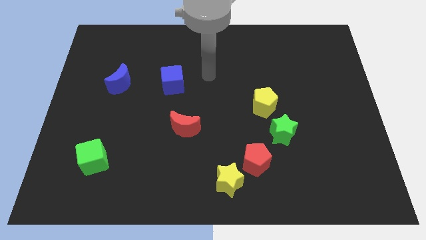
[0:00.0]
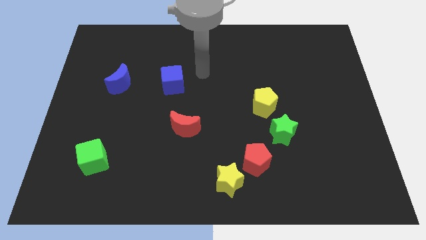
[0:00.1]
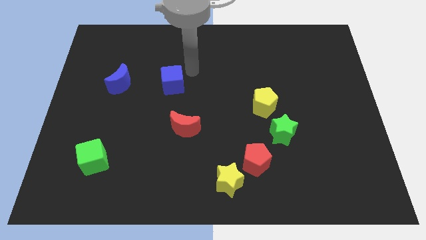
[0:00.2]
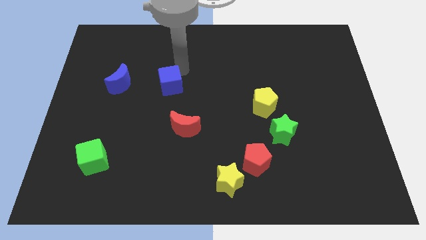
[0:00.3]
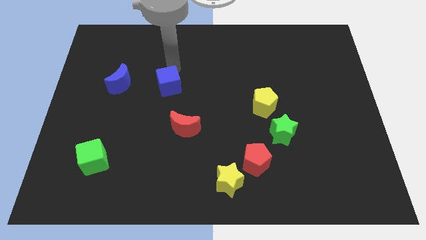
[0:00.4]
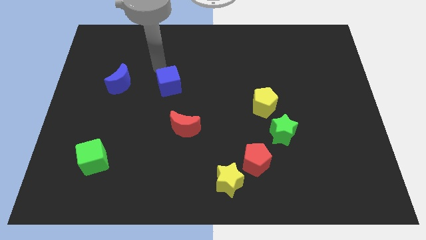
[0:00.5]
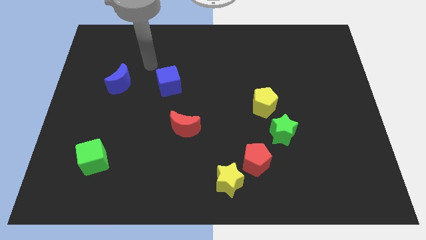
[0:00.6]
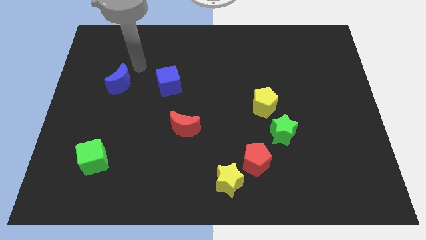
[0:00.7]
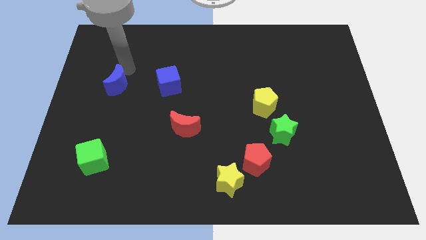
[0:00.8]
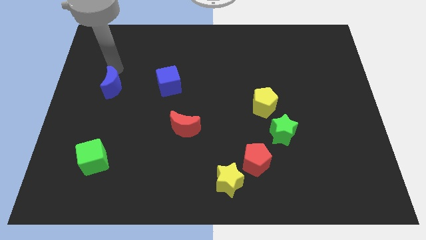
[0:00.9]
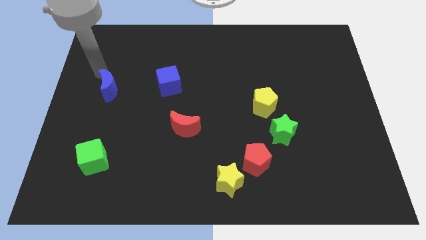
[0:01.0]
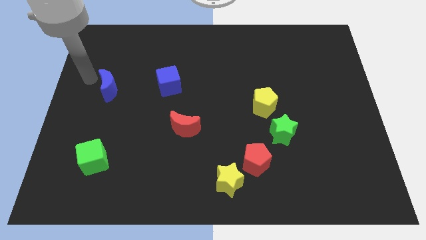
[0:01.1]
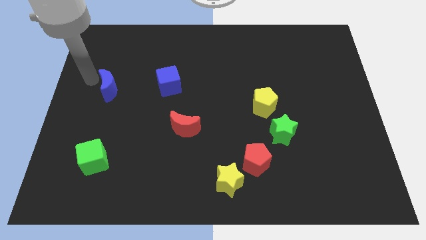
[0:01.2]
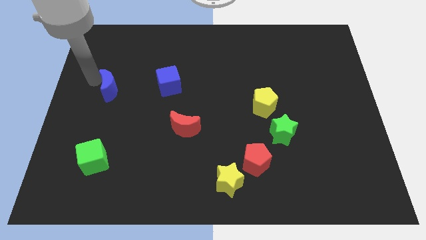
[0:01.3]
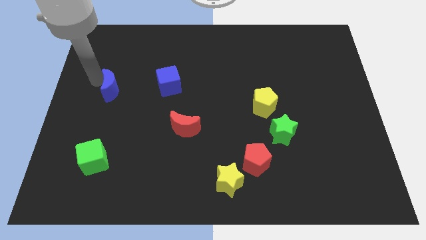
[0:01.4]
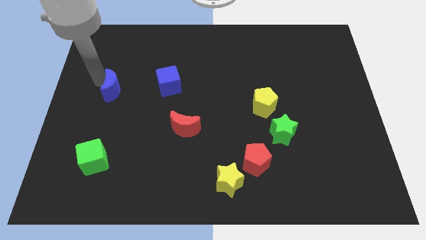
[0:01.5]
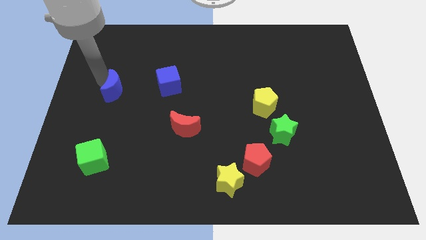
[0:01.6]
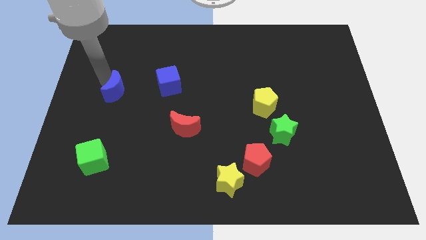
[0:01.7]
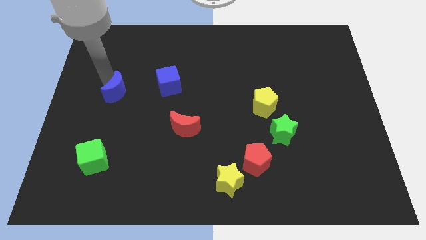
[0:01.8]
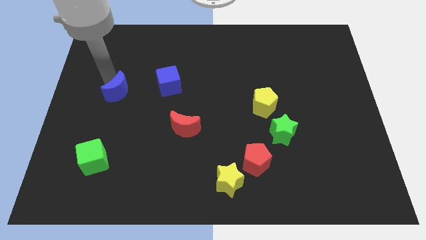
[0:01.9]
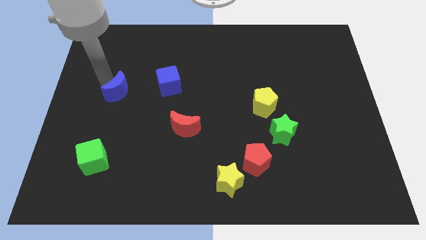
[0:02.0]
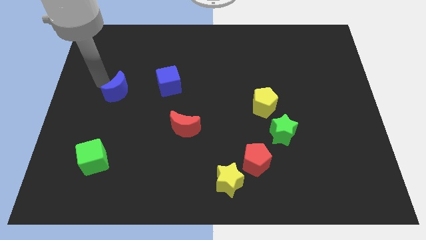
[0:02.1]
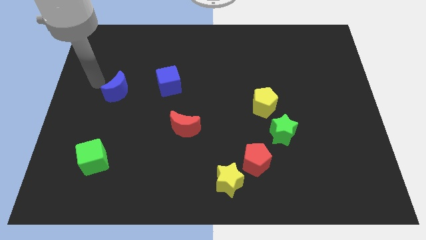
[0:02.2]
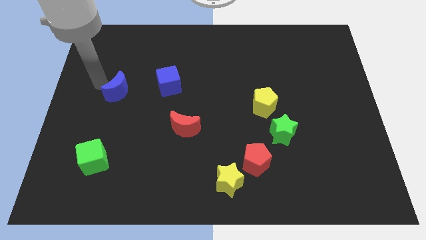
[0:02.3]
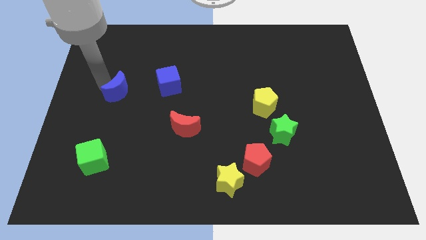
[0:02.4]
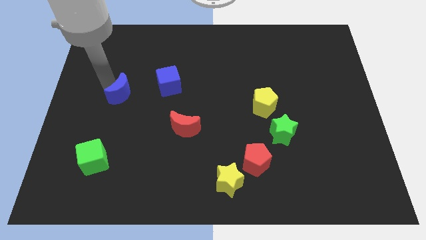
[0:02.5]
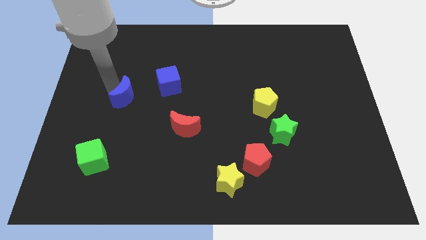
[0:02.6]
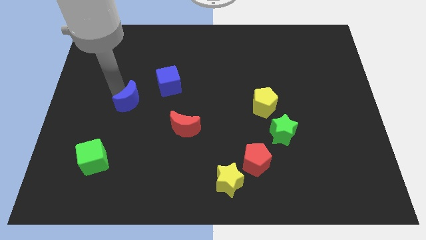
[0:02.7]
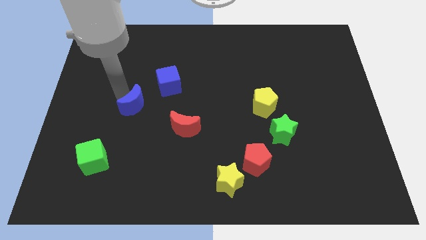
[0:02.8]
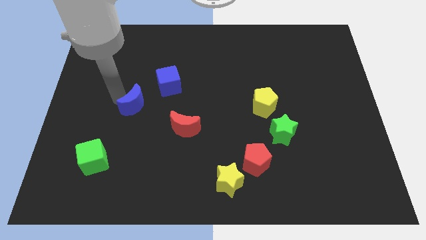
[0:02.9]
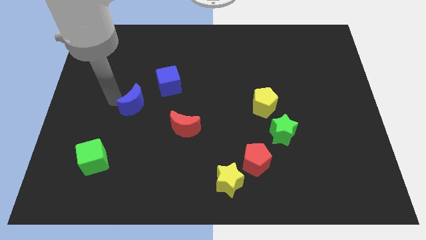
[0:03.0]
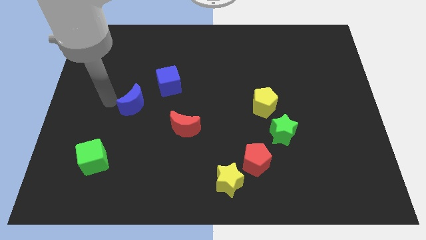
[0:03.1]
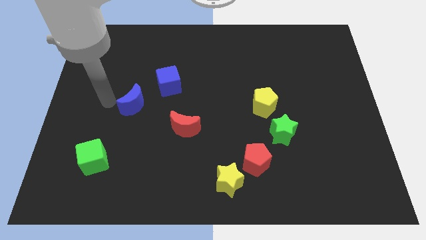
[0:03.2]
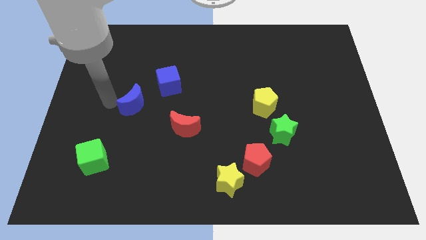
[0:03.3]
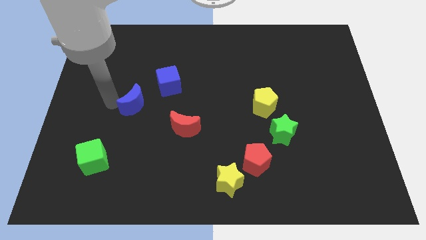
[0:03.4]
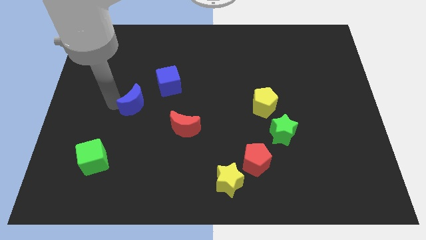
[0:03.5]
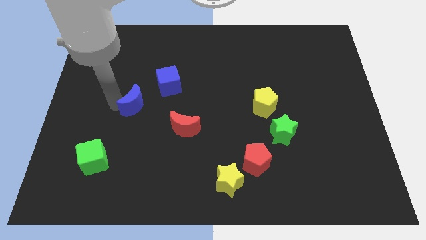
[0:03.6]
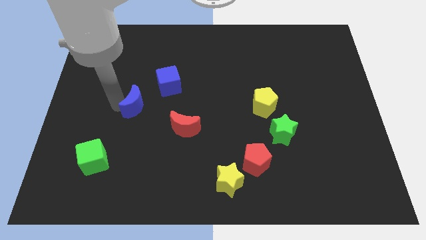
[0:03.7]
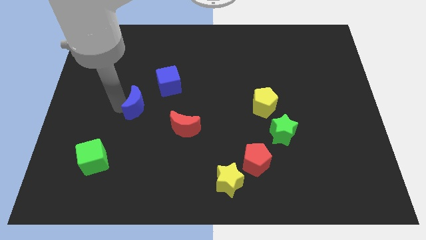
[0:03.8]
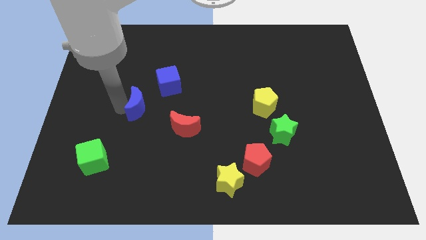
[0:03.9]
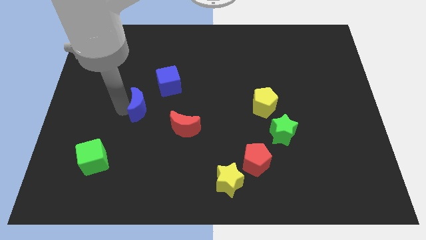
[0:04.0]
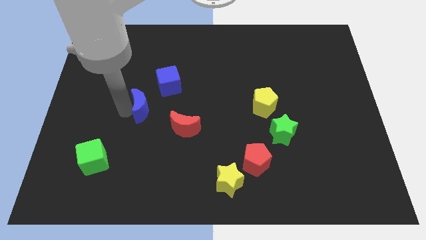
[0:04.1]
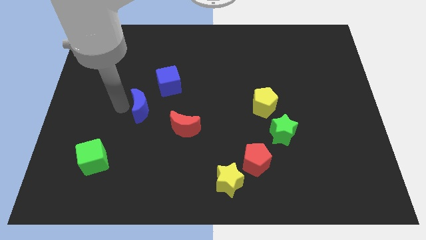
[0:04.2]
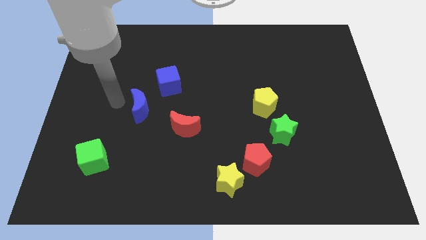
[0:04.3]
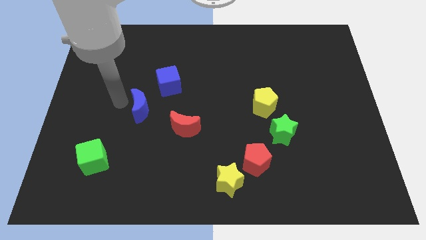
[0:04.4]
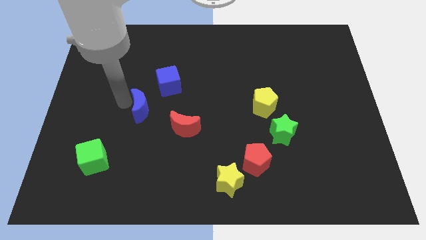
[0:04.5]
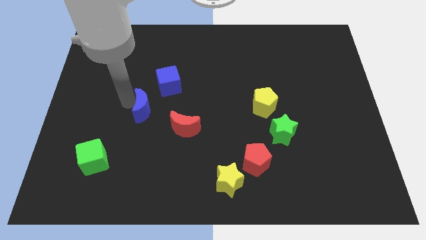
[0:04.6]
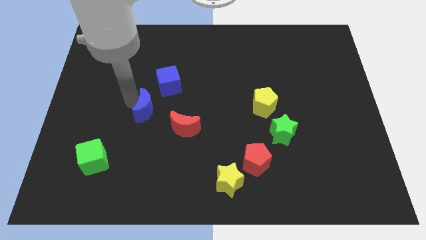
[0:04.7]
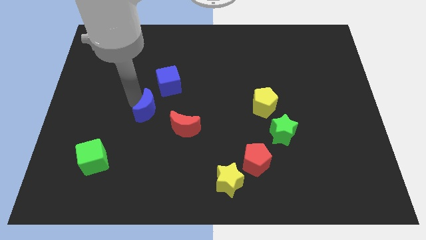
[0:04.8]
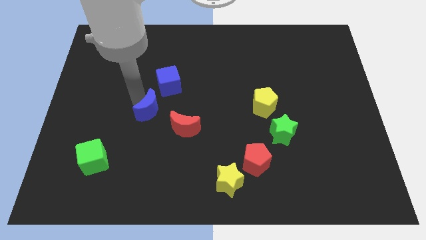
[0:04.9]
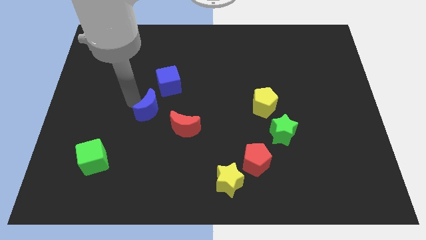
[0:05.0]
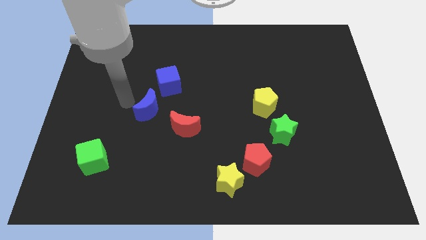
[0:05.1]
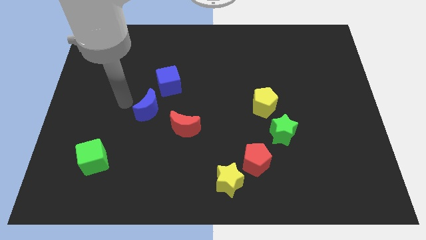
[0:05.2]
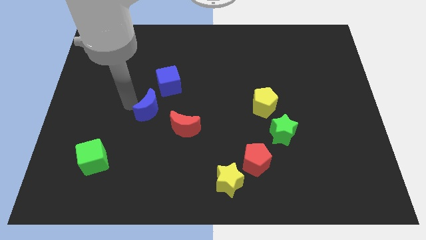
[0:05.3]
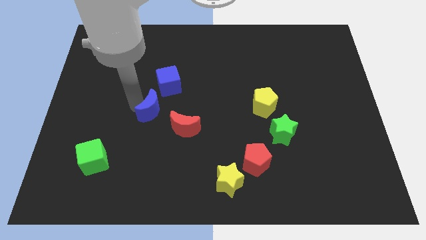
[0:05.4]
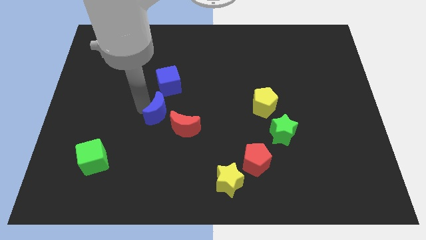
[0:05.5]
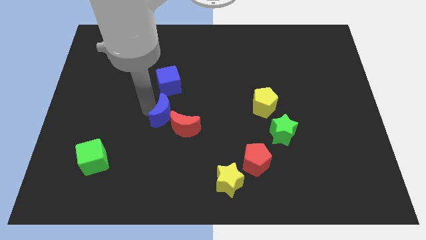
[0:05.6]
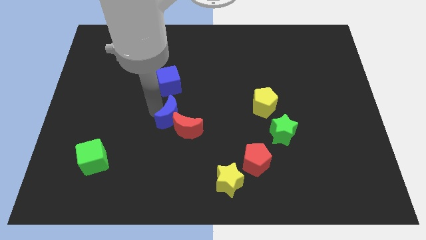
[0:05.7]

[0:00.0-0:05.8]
push the blue moon to the red moon

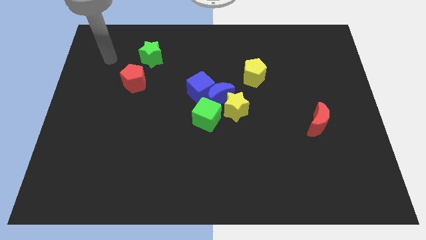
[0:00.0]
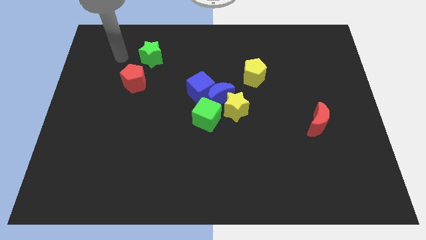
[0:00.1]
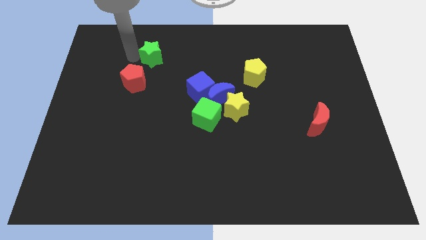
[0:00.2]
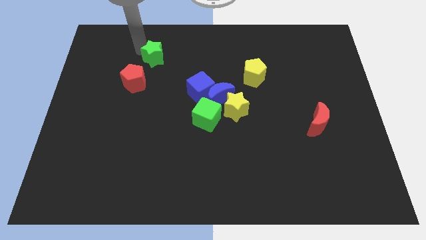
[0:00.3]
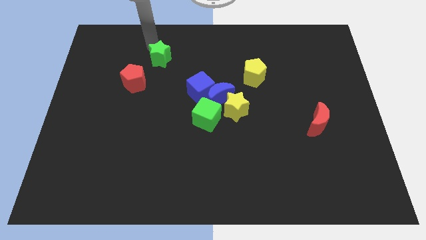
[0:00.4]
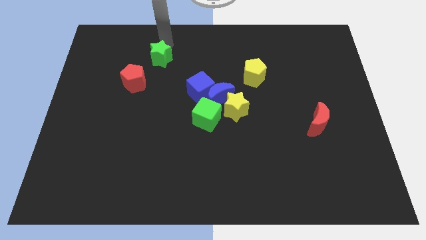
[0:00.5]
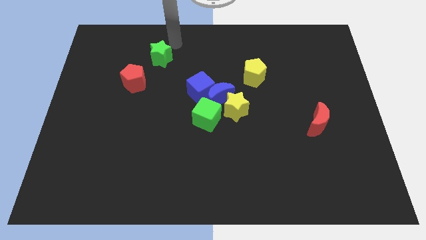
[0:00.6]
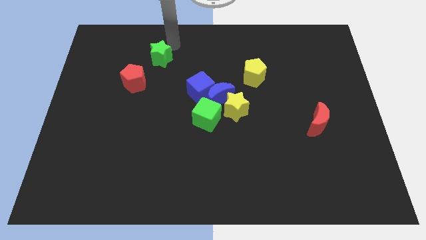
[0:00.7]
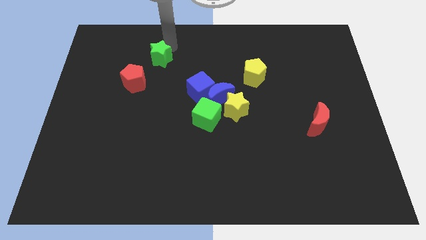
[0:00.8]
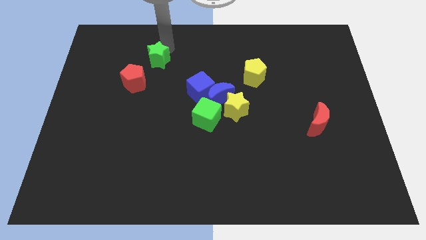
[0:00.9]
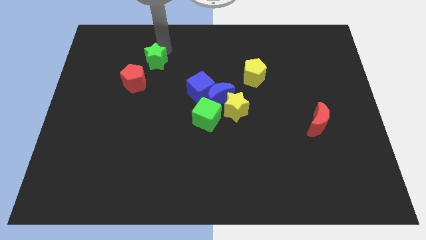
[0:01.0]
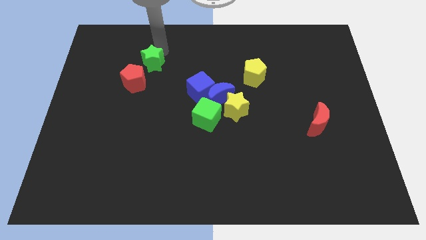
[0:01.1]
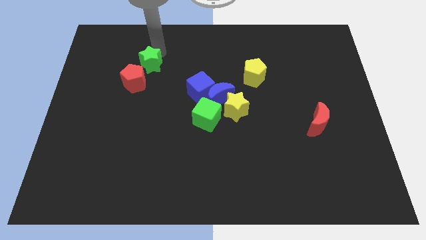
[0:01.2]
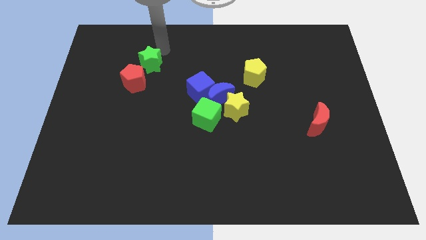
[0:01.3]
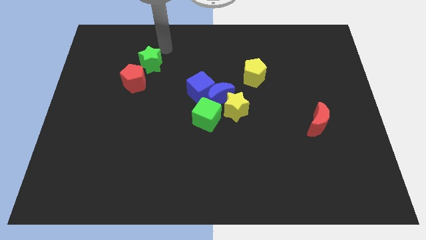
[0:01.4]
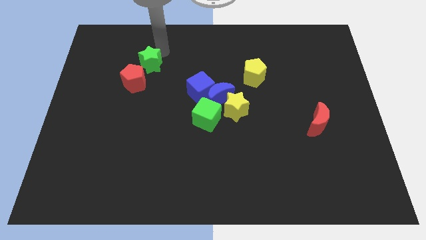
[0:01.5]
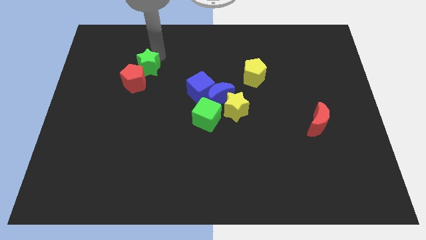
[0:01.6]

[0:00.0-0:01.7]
put the green star next to the red pentagon
